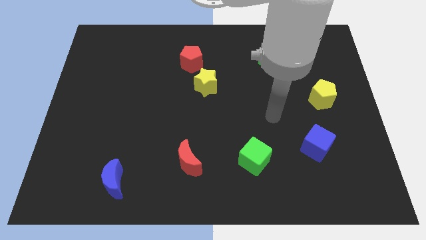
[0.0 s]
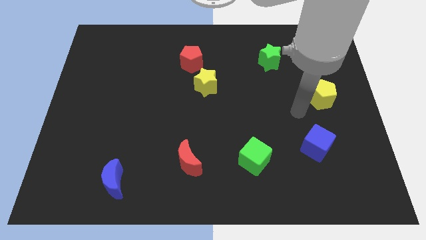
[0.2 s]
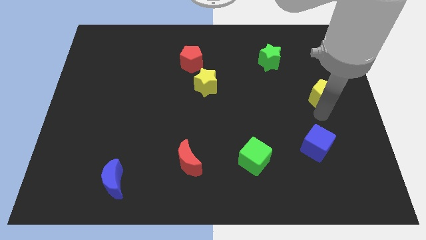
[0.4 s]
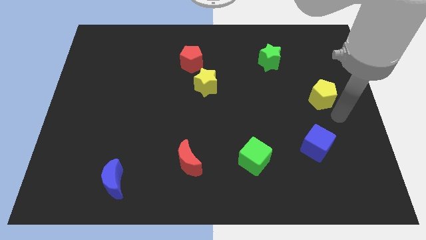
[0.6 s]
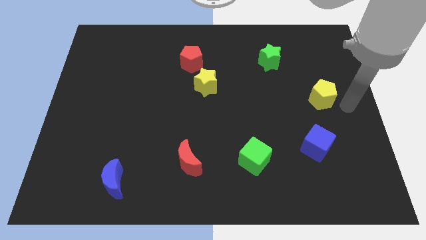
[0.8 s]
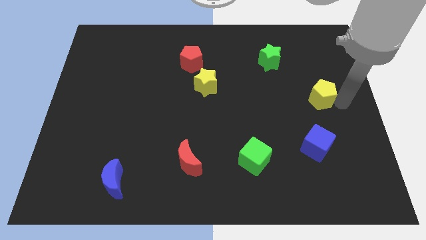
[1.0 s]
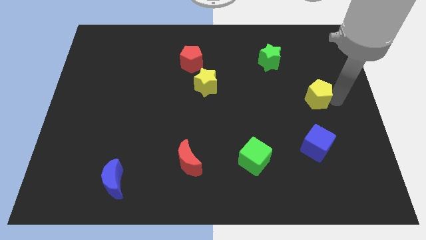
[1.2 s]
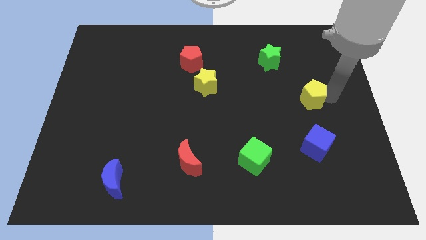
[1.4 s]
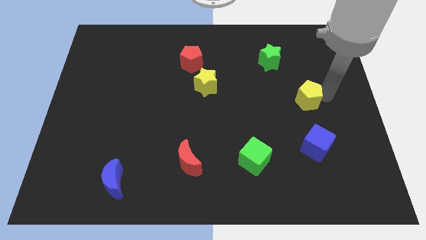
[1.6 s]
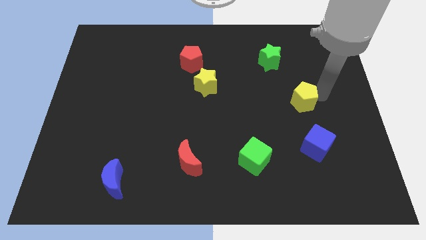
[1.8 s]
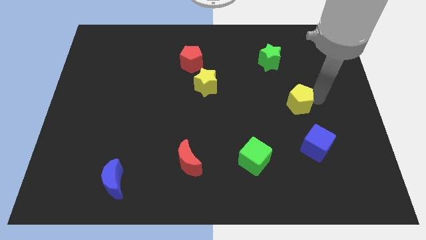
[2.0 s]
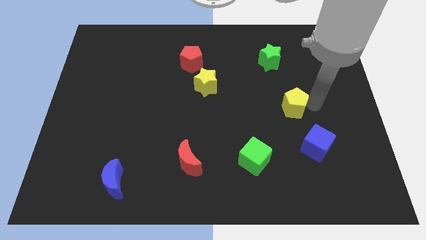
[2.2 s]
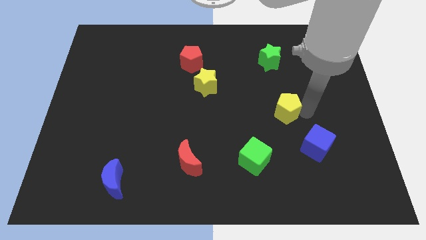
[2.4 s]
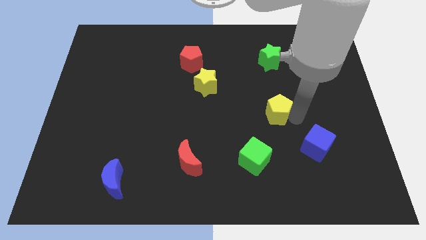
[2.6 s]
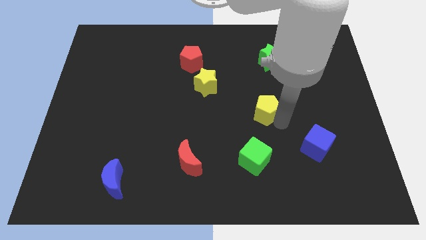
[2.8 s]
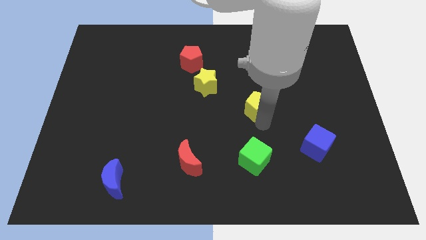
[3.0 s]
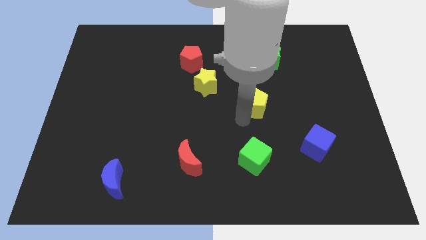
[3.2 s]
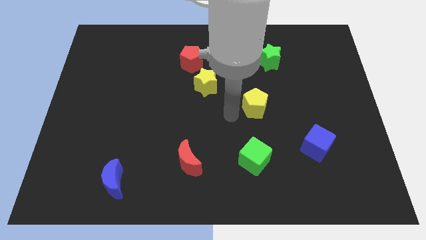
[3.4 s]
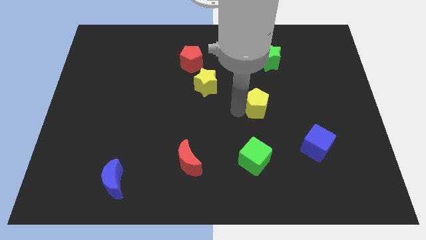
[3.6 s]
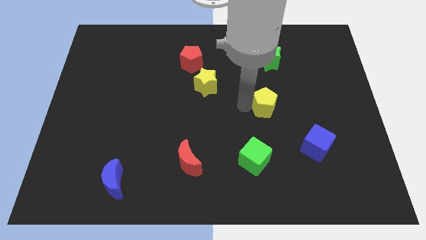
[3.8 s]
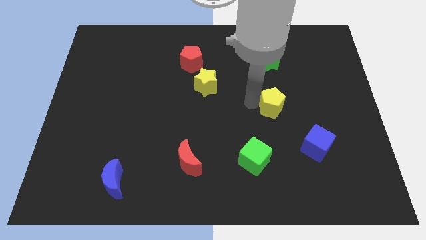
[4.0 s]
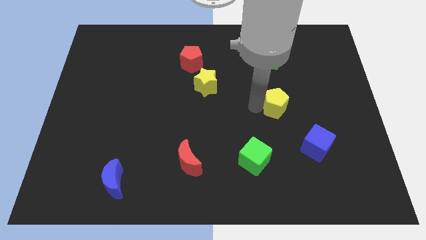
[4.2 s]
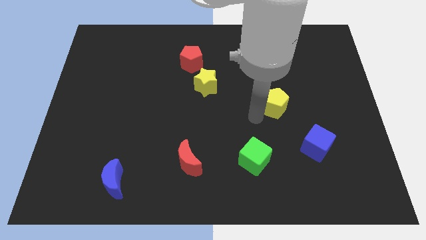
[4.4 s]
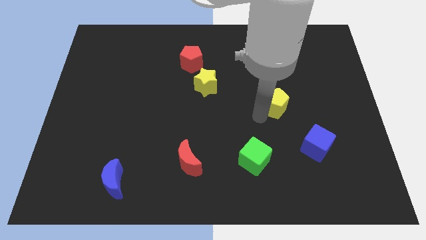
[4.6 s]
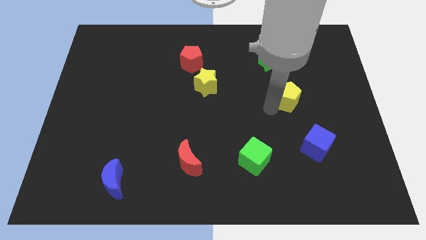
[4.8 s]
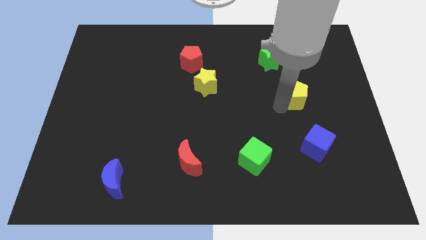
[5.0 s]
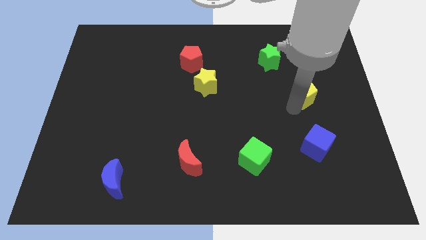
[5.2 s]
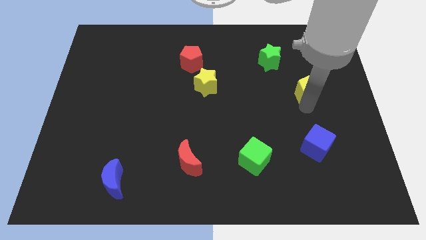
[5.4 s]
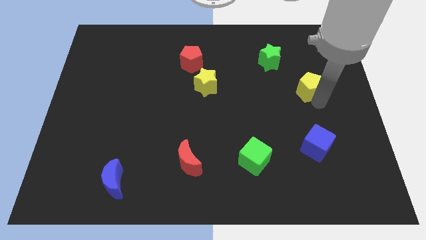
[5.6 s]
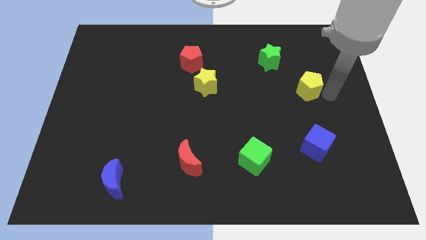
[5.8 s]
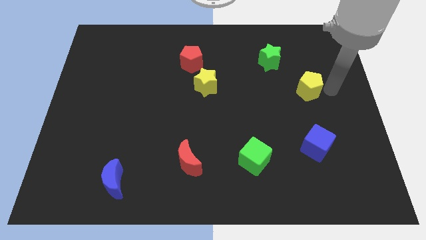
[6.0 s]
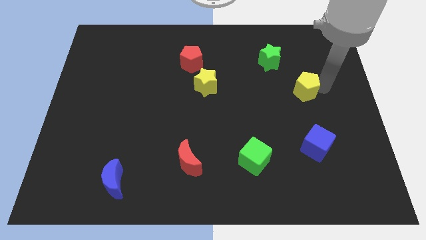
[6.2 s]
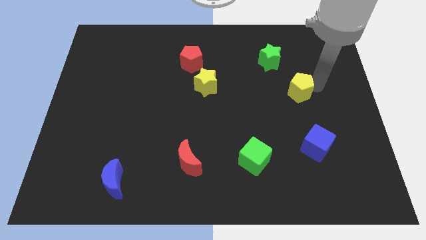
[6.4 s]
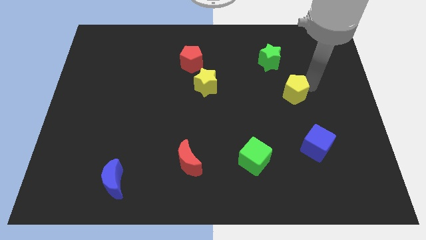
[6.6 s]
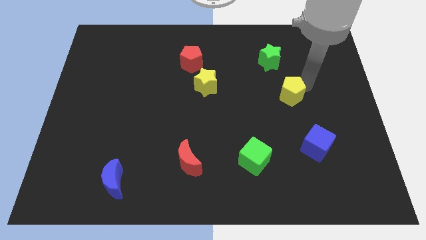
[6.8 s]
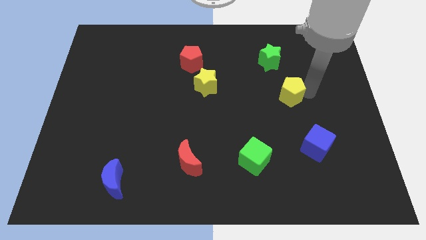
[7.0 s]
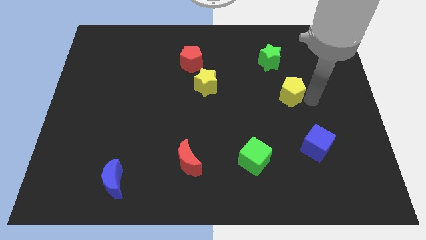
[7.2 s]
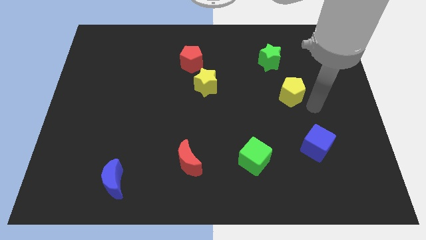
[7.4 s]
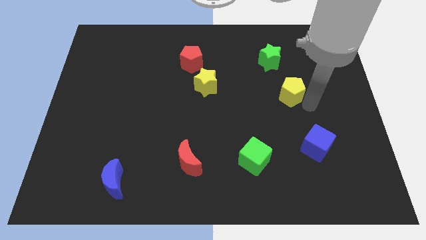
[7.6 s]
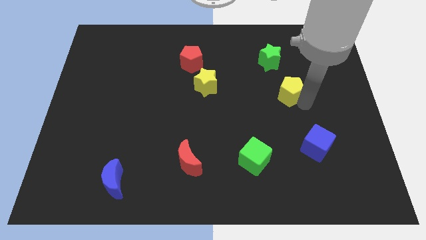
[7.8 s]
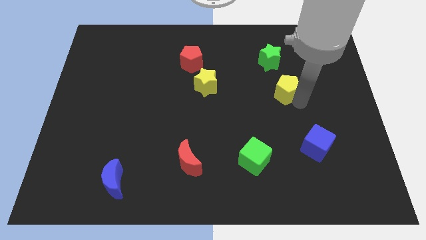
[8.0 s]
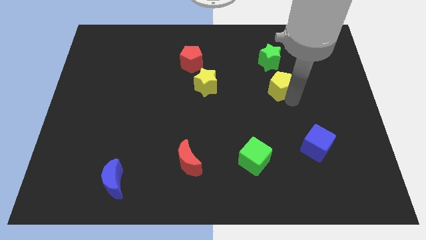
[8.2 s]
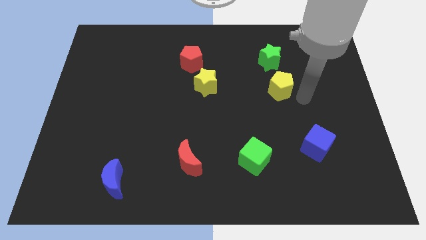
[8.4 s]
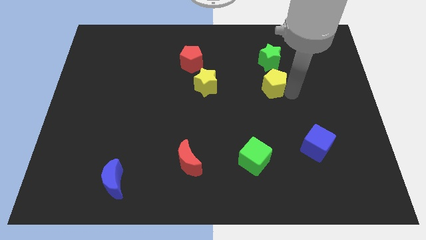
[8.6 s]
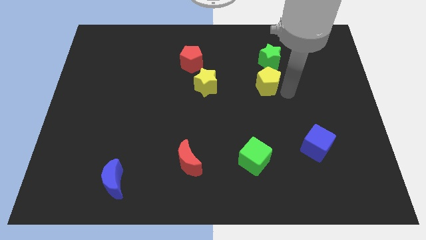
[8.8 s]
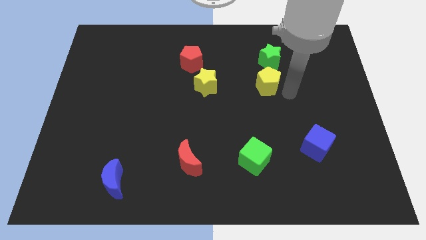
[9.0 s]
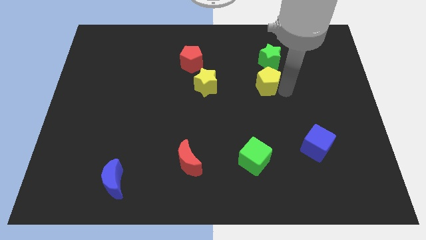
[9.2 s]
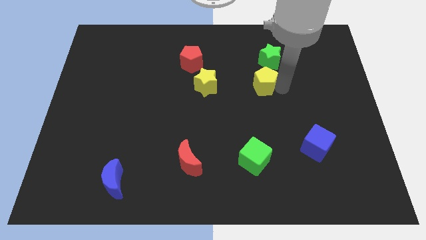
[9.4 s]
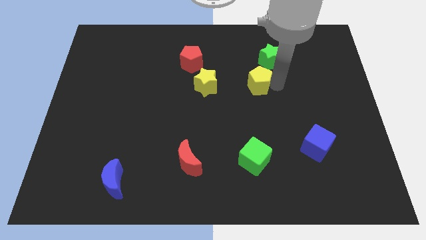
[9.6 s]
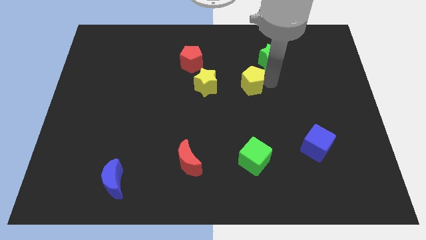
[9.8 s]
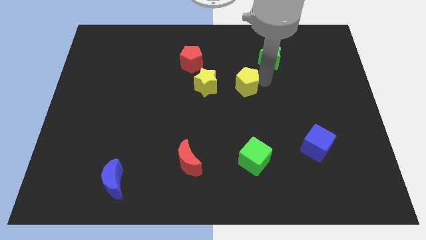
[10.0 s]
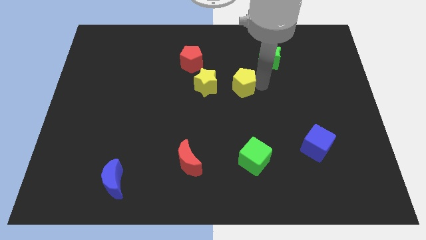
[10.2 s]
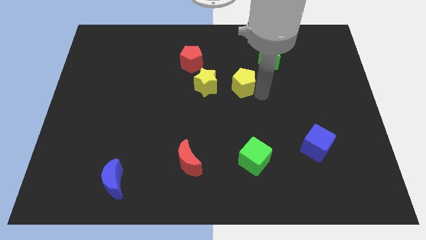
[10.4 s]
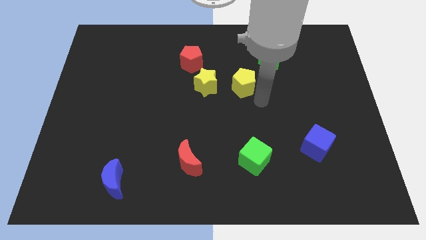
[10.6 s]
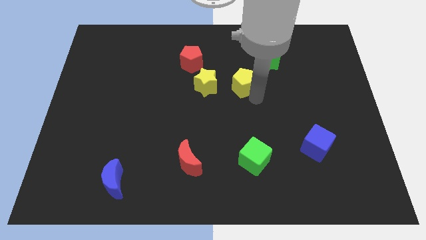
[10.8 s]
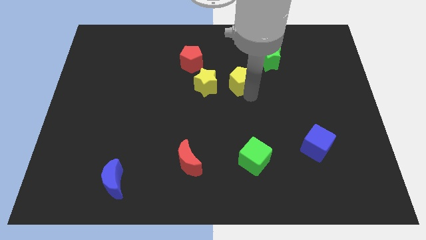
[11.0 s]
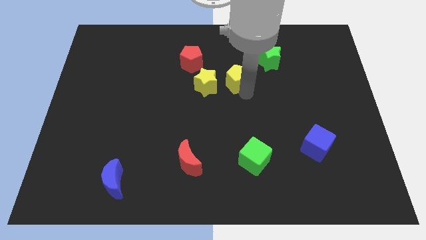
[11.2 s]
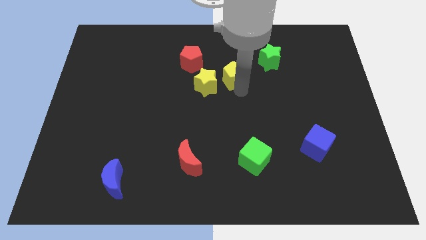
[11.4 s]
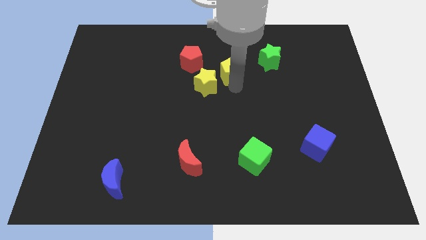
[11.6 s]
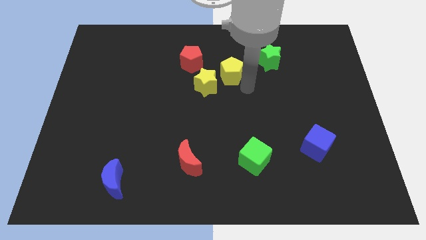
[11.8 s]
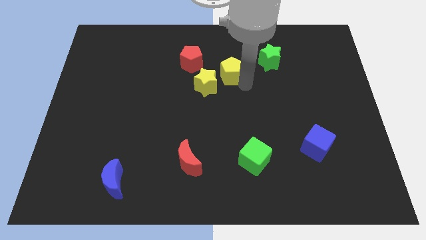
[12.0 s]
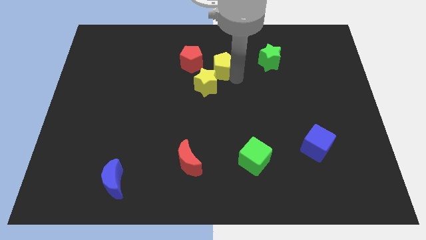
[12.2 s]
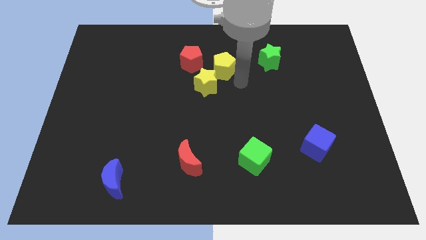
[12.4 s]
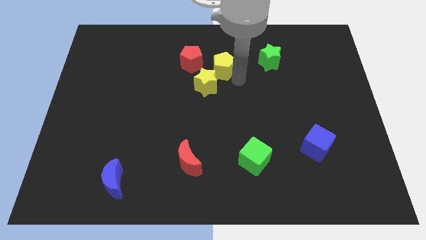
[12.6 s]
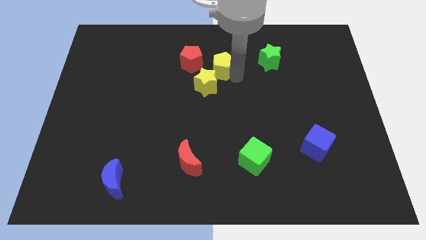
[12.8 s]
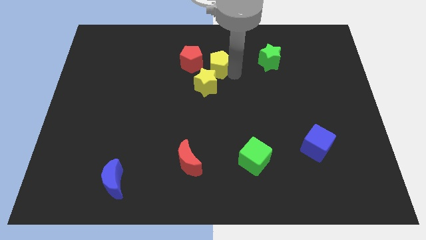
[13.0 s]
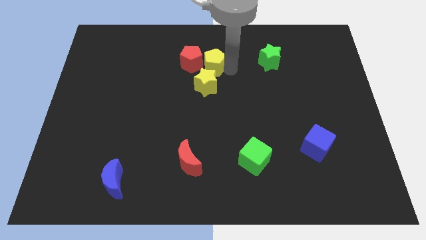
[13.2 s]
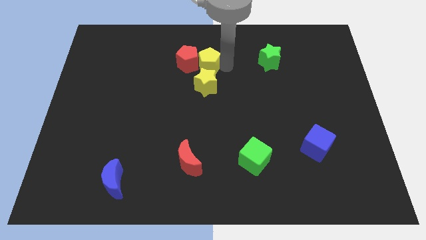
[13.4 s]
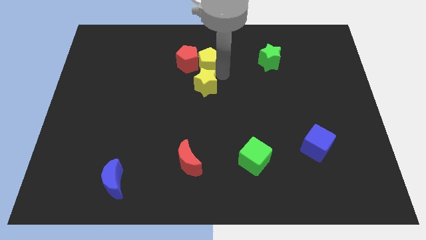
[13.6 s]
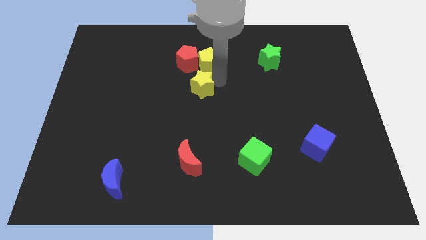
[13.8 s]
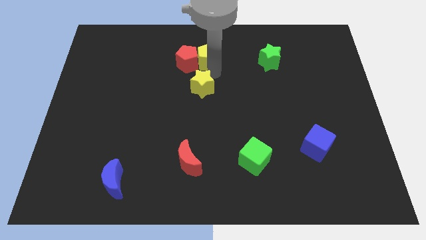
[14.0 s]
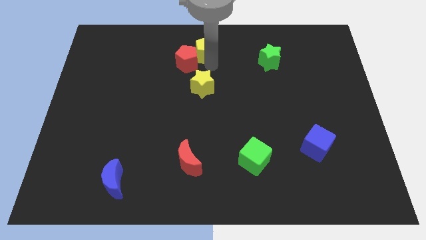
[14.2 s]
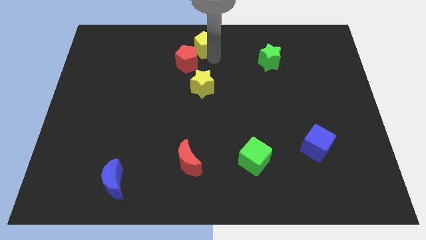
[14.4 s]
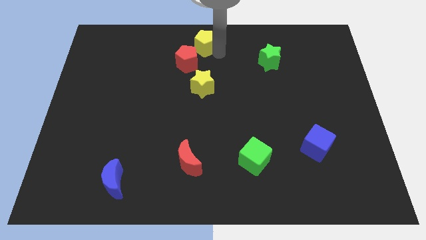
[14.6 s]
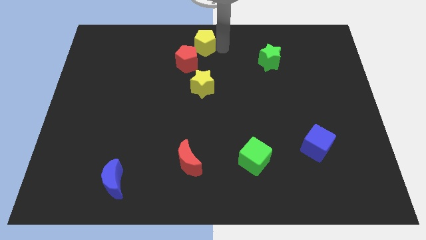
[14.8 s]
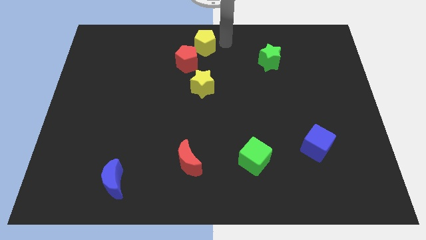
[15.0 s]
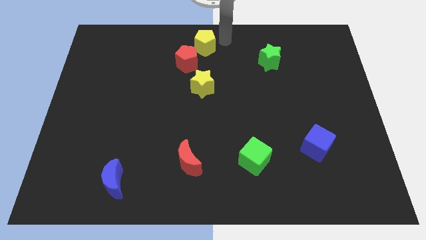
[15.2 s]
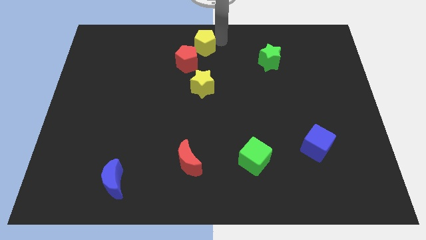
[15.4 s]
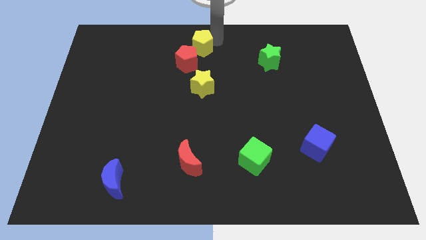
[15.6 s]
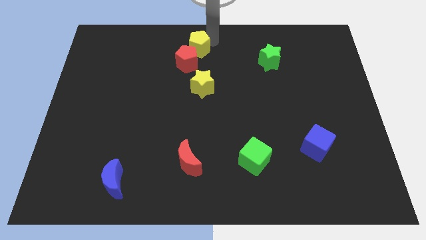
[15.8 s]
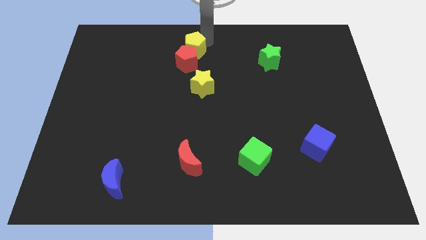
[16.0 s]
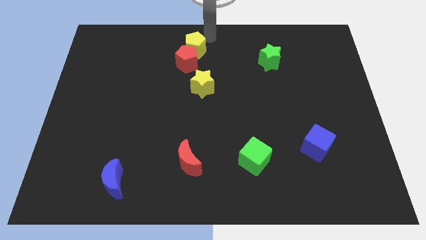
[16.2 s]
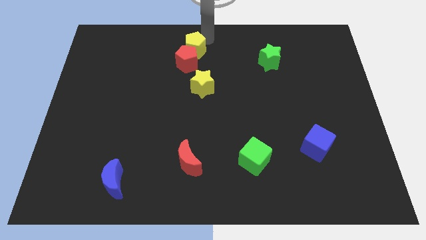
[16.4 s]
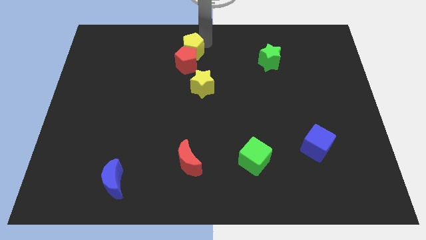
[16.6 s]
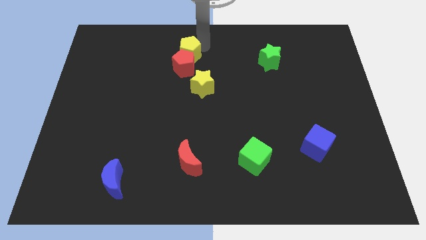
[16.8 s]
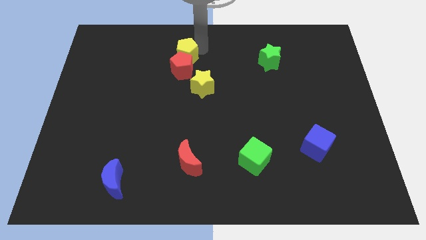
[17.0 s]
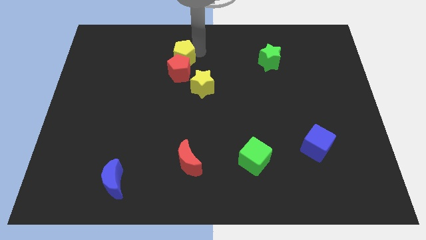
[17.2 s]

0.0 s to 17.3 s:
put the yellow pentagon to the top left of the yellow star
